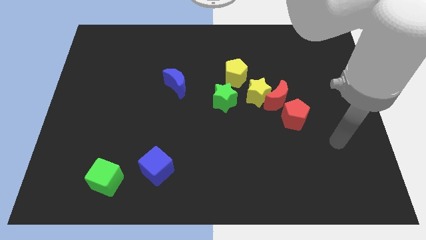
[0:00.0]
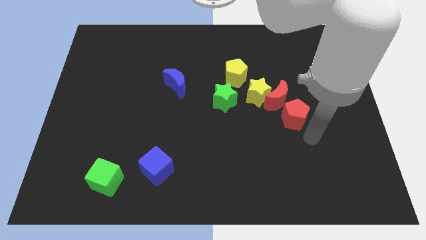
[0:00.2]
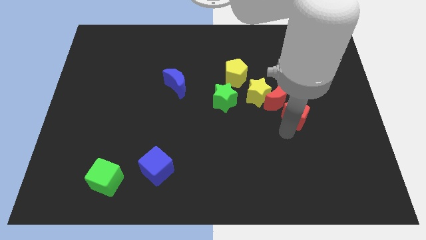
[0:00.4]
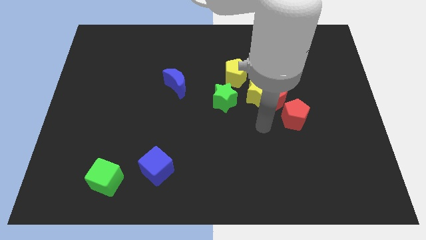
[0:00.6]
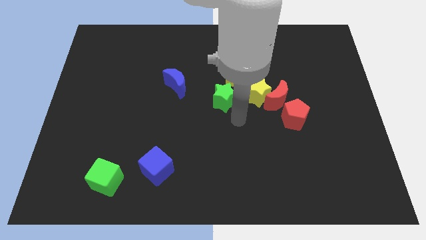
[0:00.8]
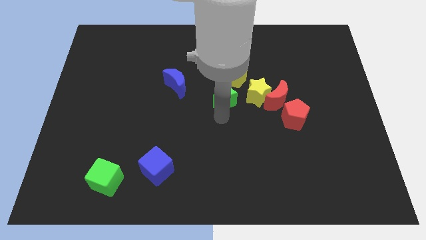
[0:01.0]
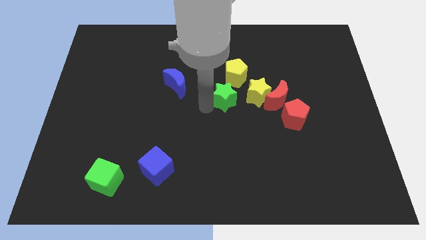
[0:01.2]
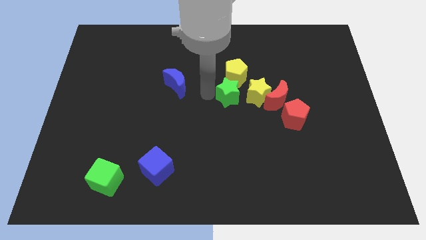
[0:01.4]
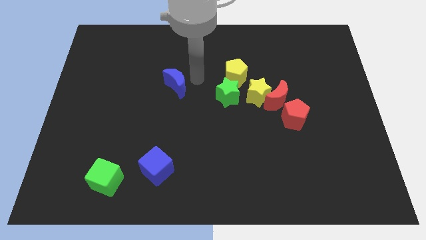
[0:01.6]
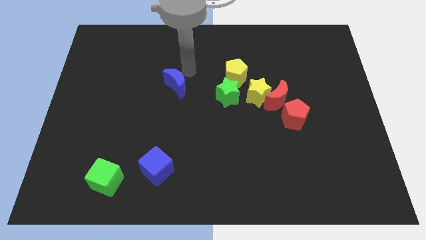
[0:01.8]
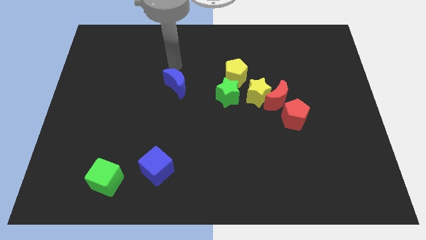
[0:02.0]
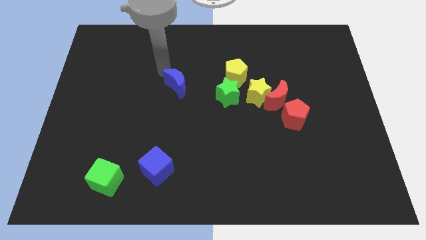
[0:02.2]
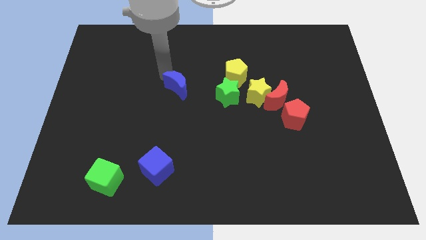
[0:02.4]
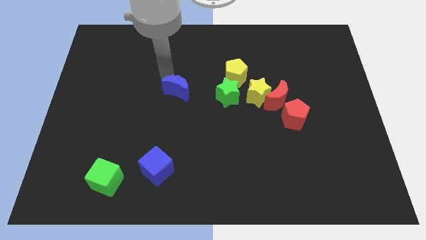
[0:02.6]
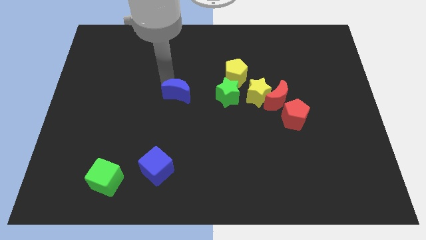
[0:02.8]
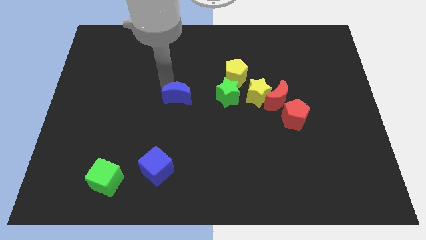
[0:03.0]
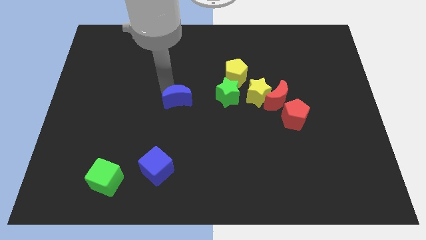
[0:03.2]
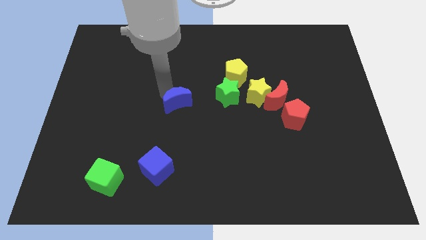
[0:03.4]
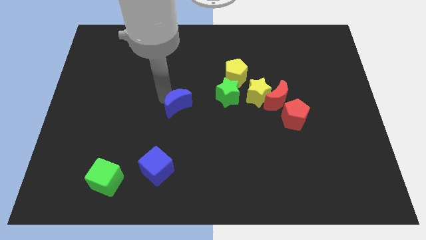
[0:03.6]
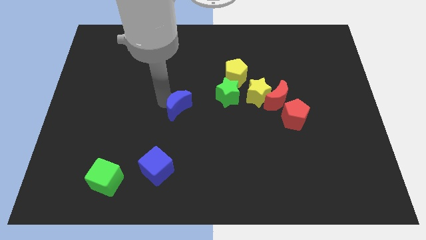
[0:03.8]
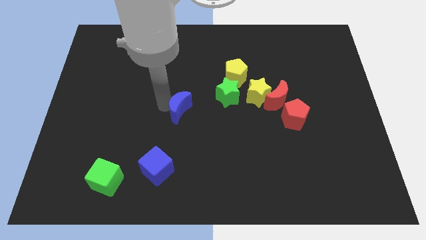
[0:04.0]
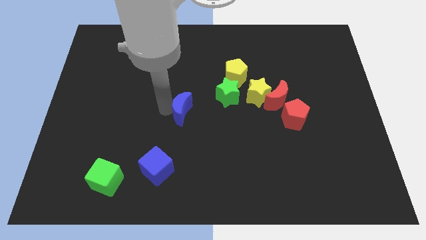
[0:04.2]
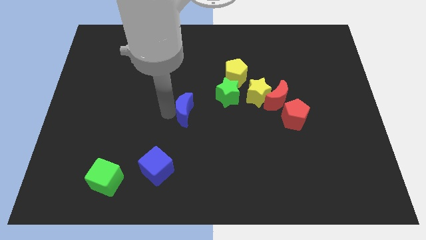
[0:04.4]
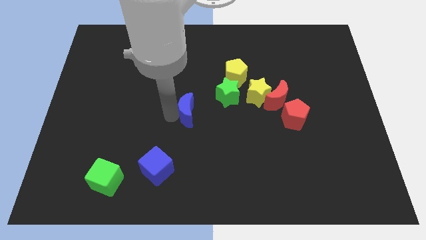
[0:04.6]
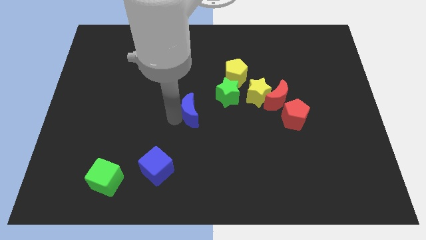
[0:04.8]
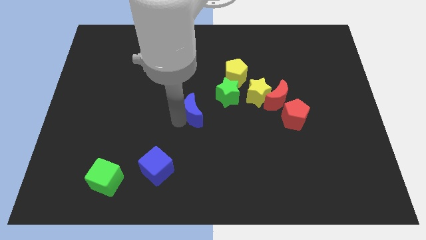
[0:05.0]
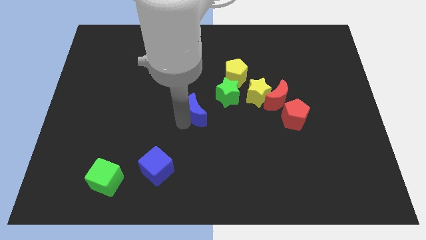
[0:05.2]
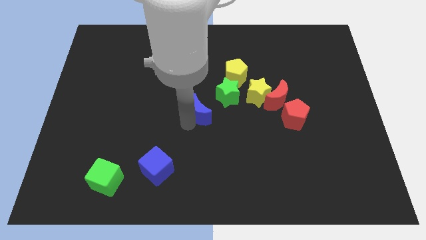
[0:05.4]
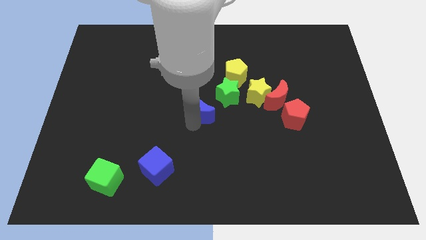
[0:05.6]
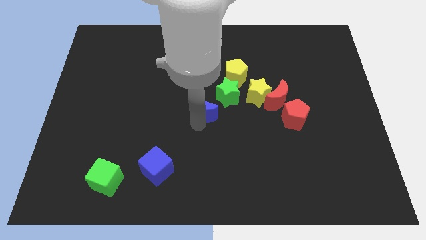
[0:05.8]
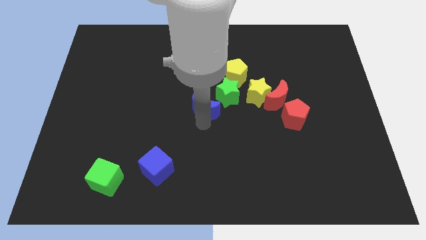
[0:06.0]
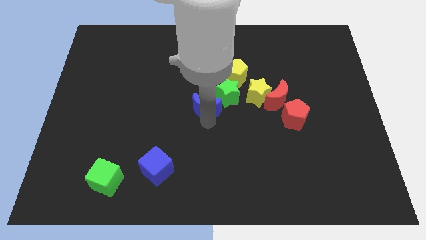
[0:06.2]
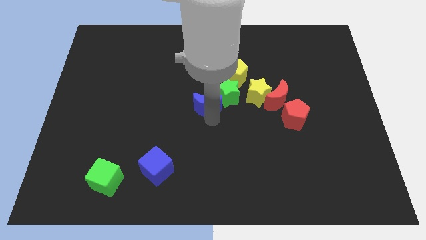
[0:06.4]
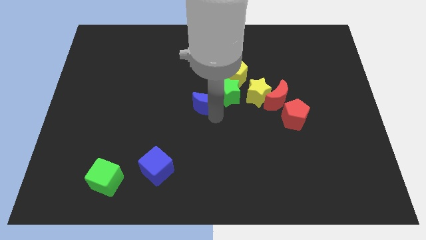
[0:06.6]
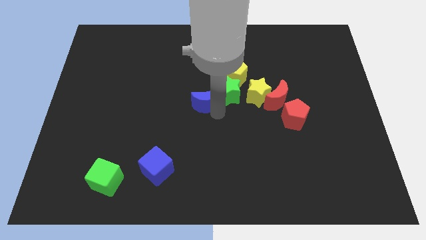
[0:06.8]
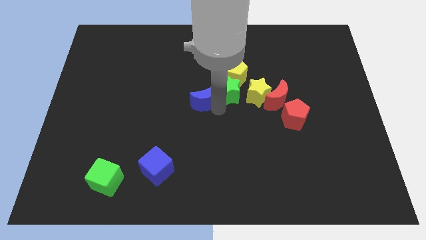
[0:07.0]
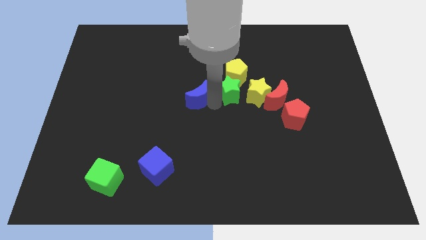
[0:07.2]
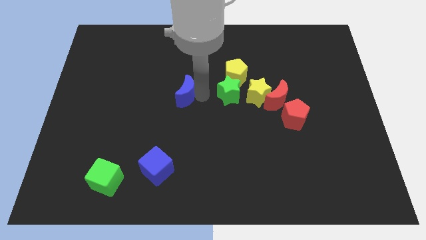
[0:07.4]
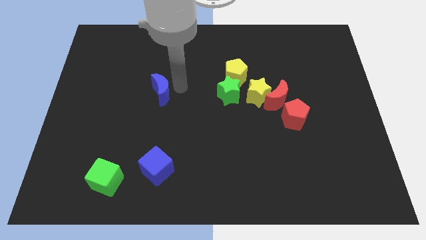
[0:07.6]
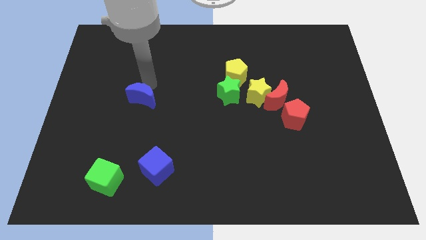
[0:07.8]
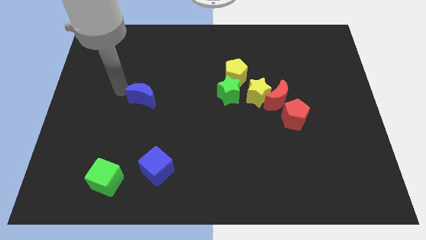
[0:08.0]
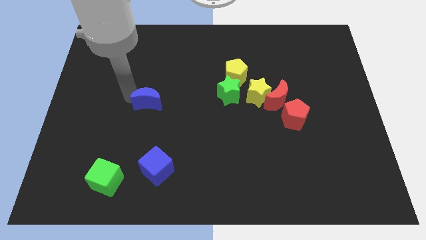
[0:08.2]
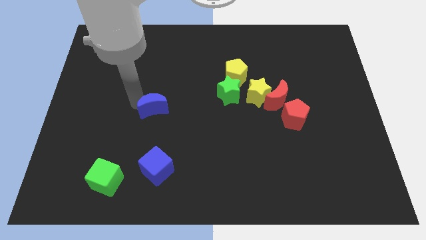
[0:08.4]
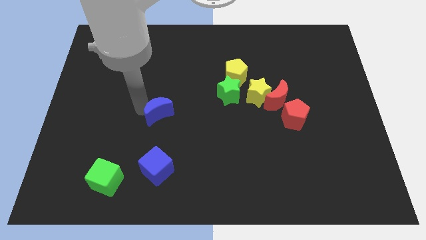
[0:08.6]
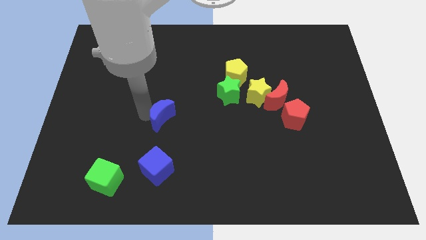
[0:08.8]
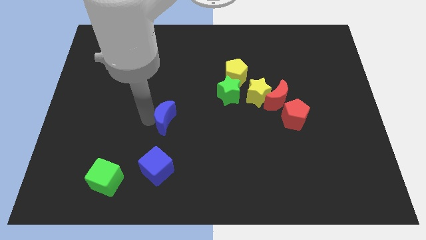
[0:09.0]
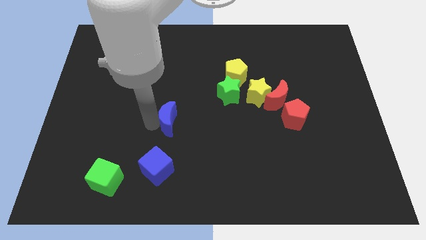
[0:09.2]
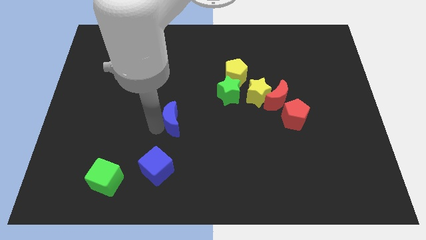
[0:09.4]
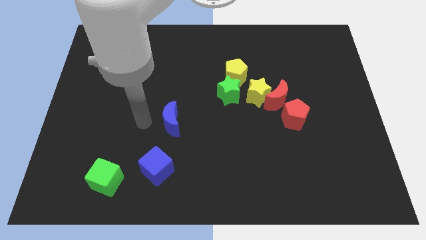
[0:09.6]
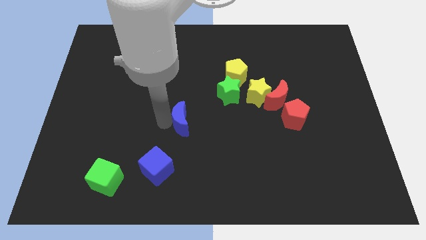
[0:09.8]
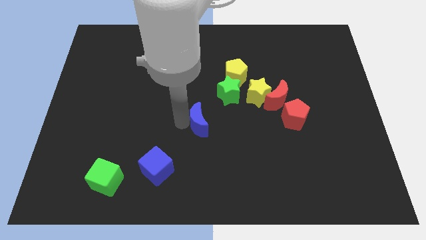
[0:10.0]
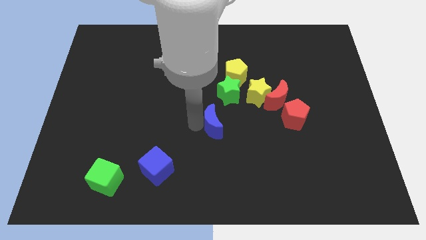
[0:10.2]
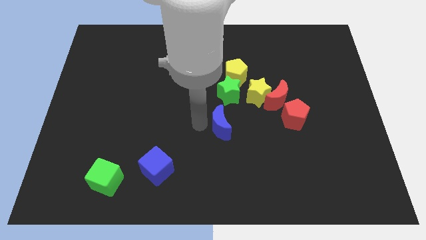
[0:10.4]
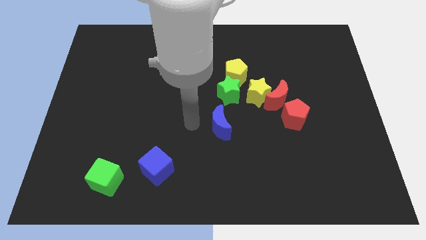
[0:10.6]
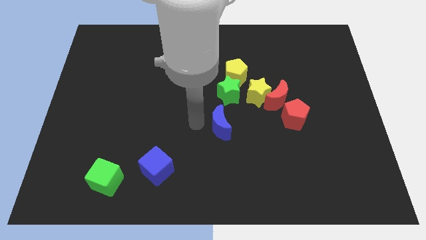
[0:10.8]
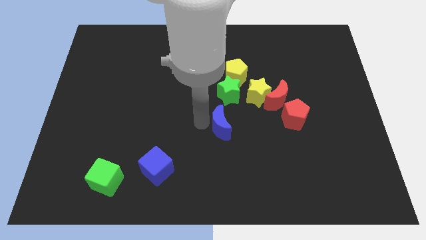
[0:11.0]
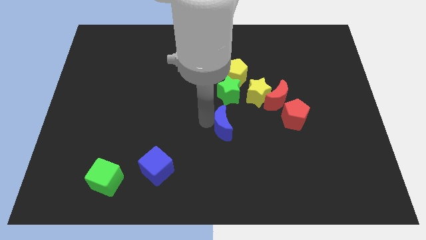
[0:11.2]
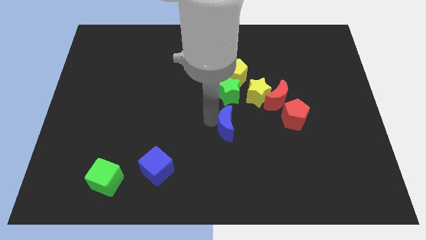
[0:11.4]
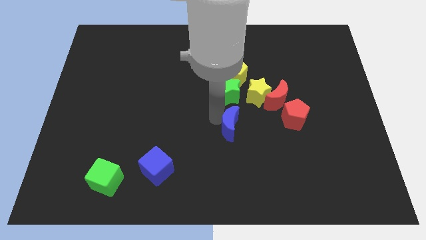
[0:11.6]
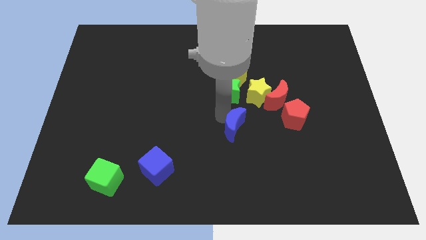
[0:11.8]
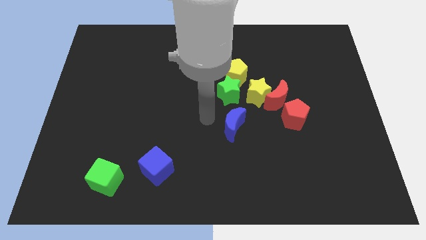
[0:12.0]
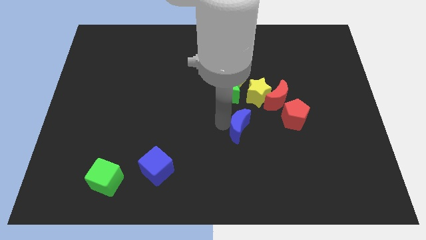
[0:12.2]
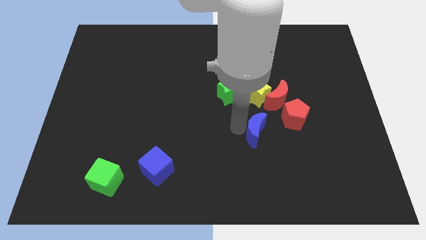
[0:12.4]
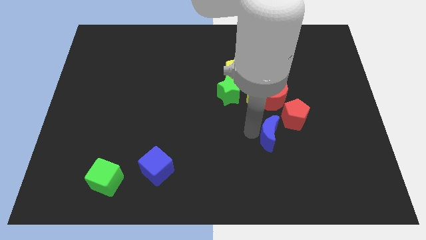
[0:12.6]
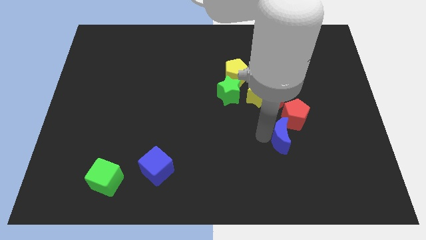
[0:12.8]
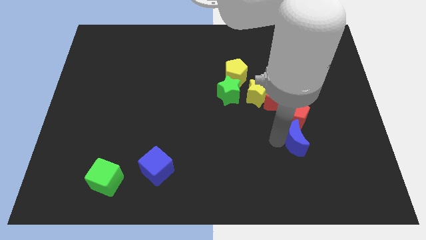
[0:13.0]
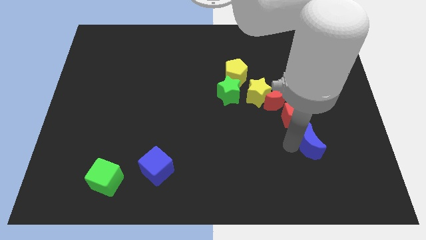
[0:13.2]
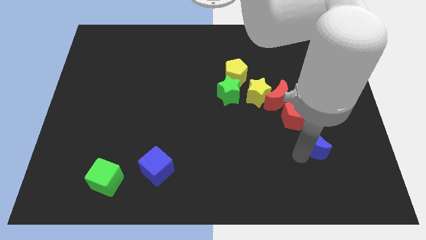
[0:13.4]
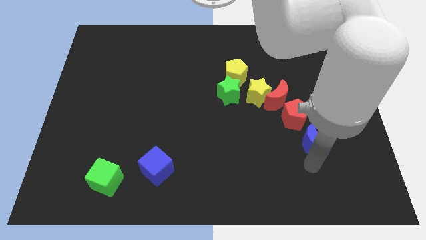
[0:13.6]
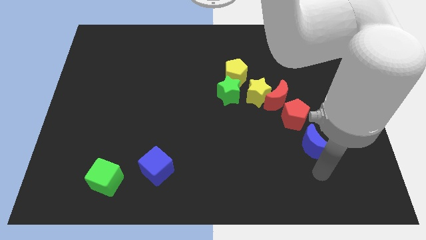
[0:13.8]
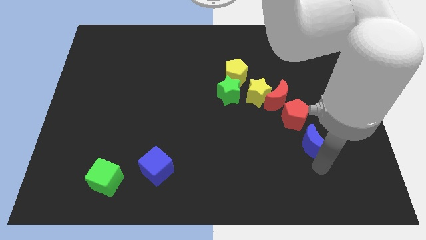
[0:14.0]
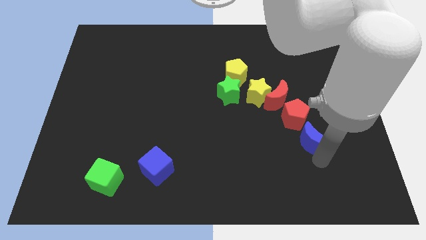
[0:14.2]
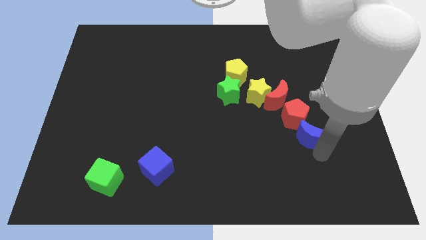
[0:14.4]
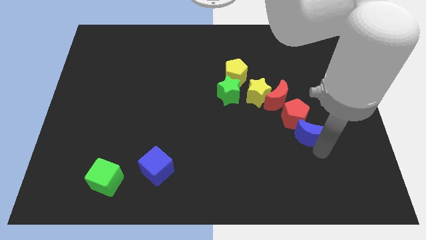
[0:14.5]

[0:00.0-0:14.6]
slide the blue moon diagonally down and to the right of the red moon
